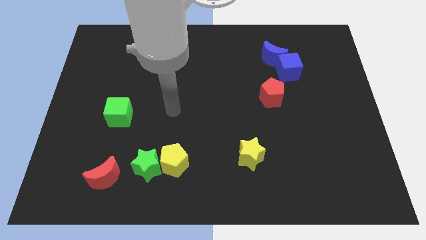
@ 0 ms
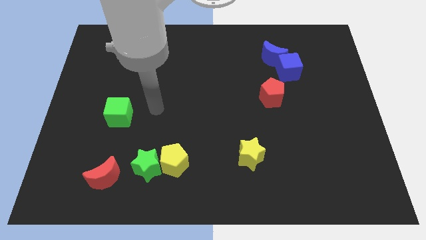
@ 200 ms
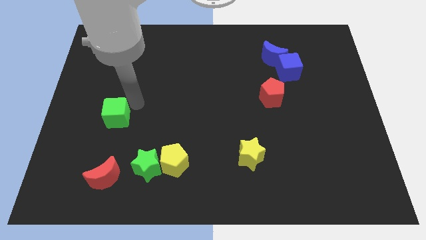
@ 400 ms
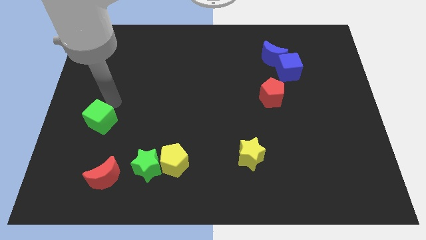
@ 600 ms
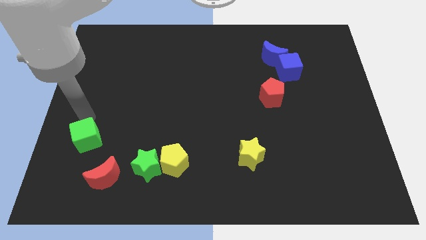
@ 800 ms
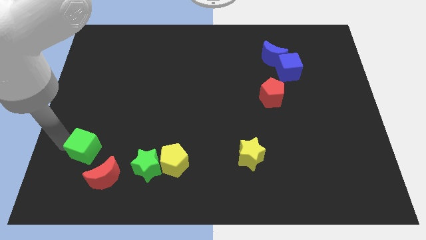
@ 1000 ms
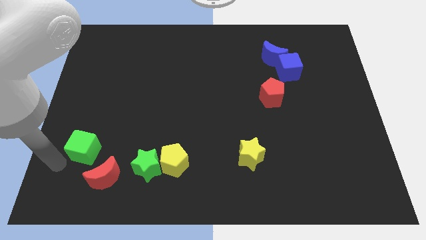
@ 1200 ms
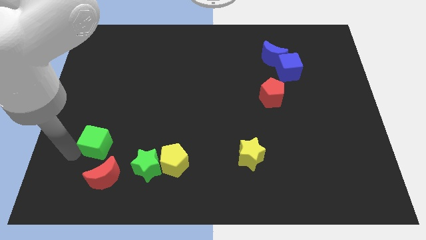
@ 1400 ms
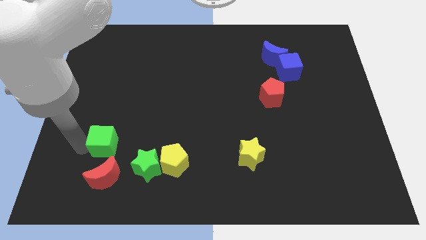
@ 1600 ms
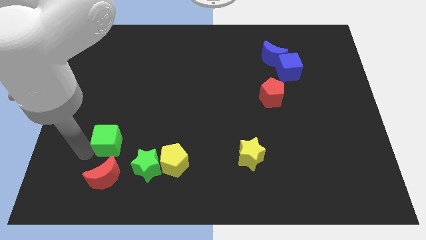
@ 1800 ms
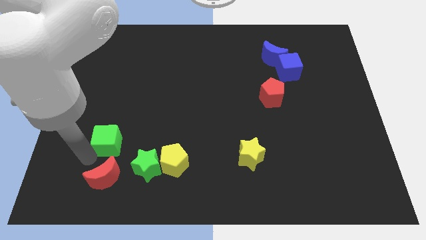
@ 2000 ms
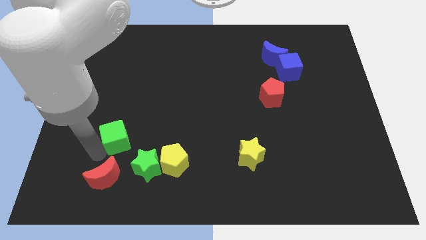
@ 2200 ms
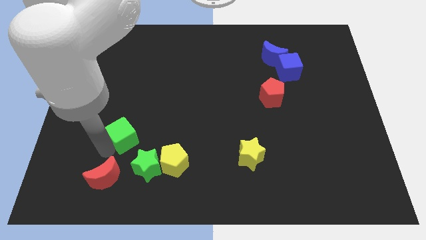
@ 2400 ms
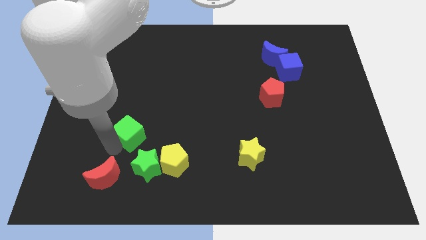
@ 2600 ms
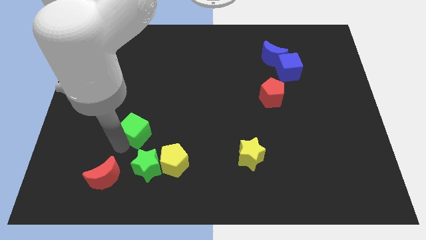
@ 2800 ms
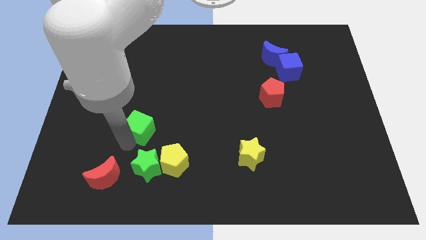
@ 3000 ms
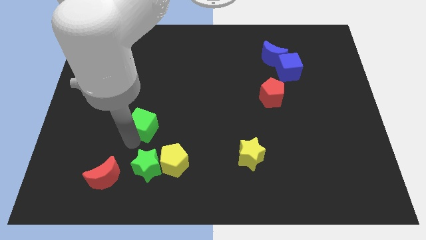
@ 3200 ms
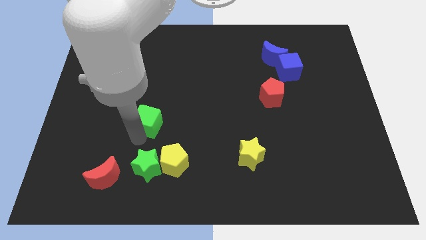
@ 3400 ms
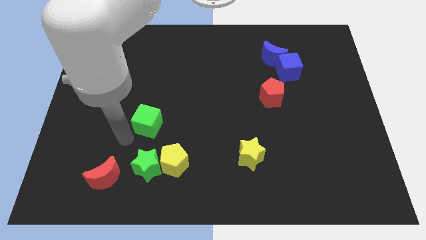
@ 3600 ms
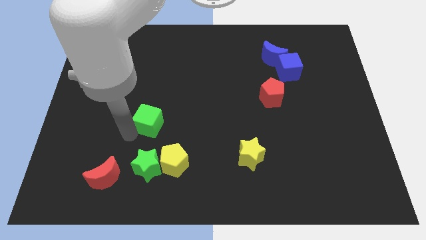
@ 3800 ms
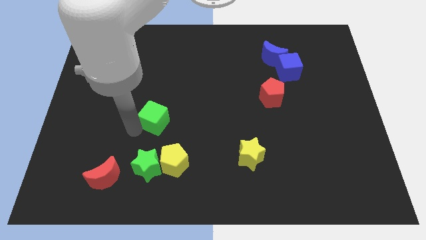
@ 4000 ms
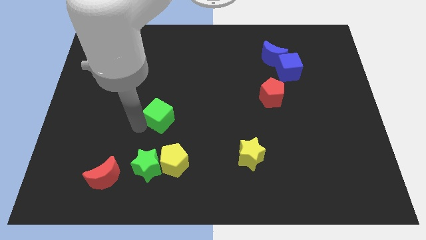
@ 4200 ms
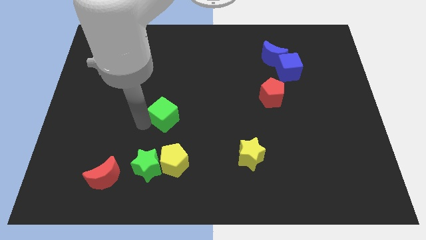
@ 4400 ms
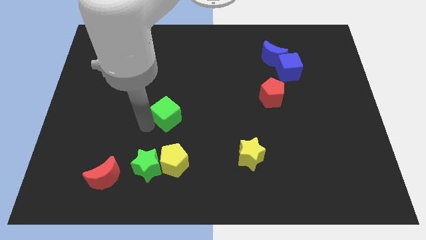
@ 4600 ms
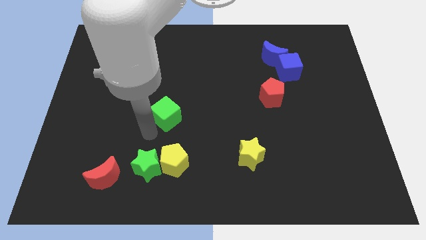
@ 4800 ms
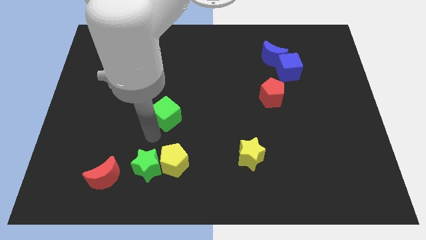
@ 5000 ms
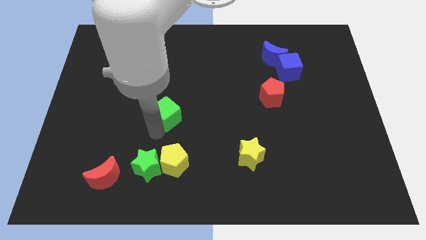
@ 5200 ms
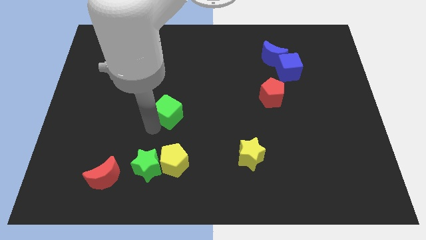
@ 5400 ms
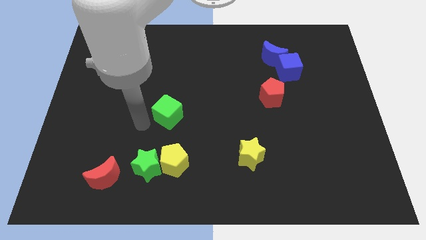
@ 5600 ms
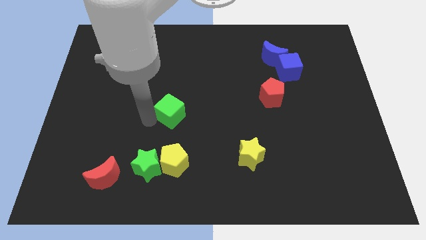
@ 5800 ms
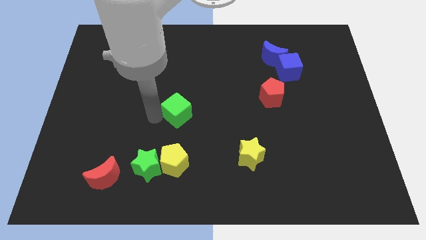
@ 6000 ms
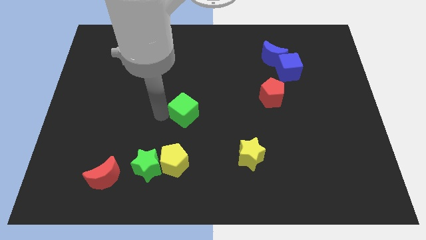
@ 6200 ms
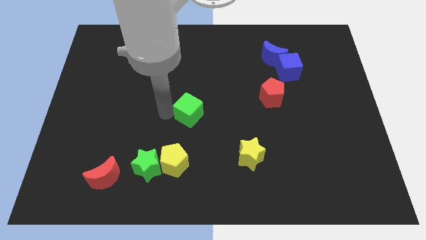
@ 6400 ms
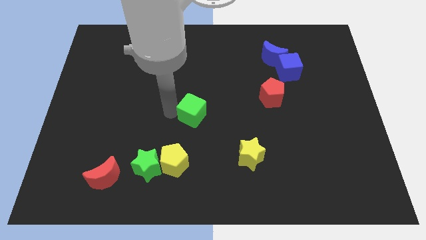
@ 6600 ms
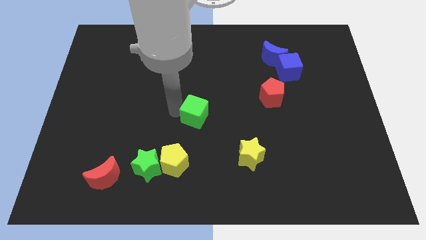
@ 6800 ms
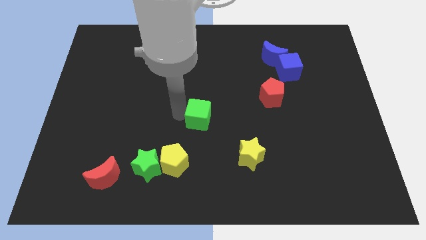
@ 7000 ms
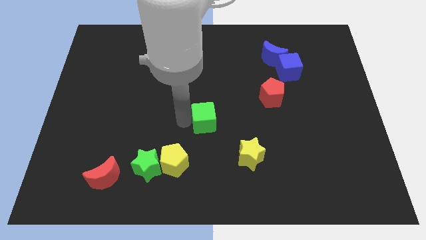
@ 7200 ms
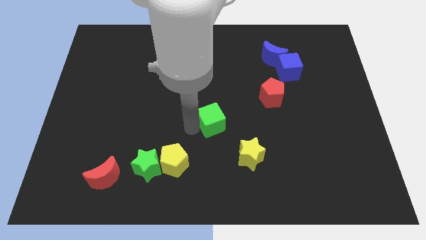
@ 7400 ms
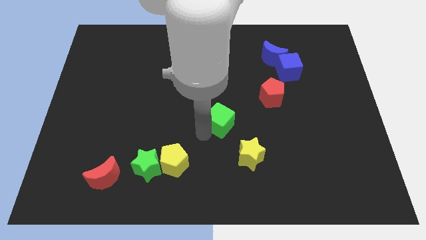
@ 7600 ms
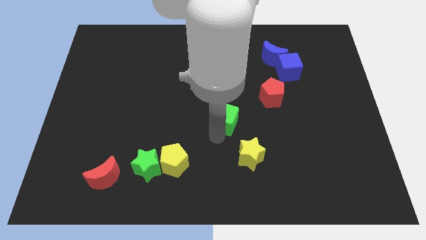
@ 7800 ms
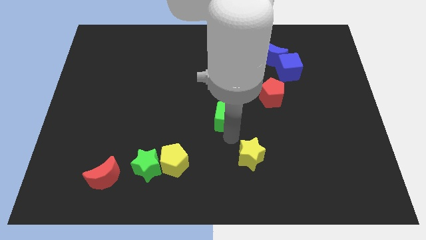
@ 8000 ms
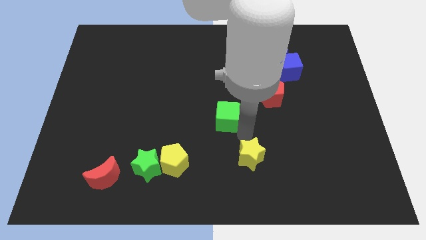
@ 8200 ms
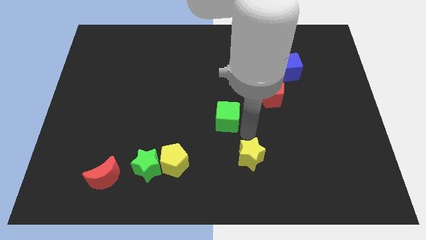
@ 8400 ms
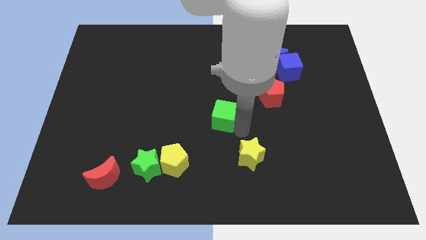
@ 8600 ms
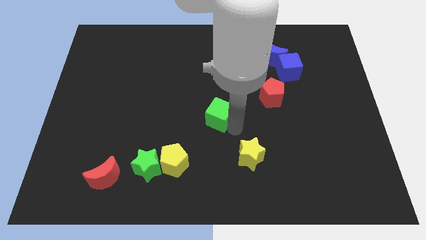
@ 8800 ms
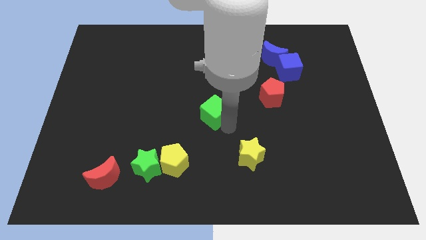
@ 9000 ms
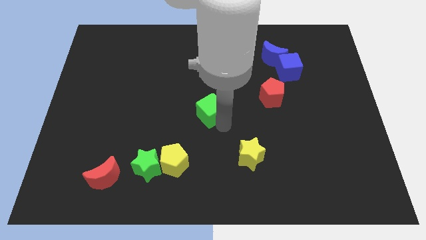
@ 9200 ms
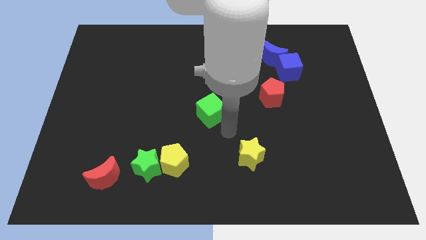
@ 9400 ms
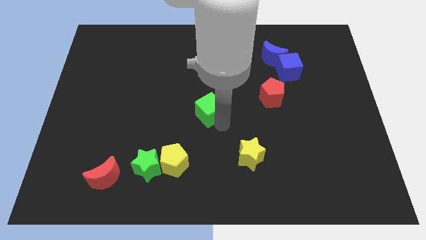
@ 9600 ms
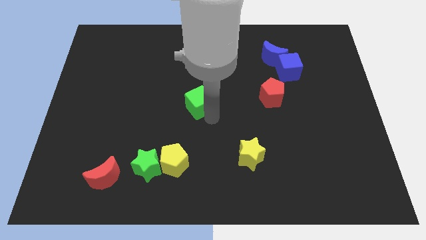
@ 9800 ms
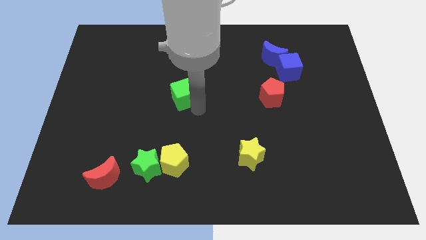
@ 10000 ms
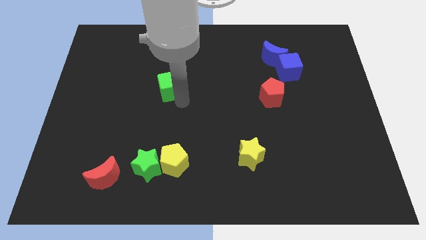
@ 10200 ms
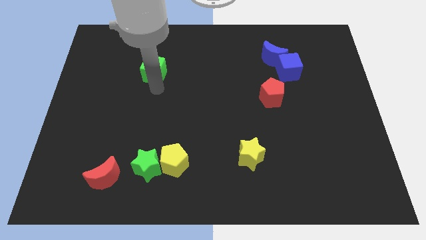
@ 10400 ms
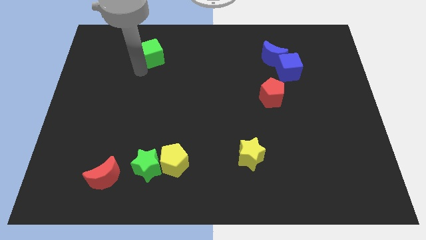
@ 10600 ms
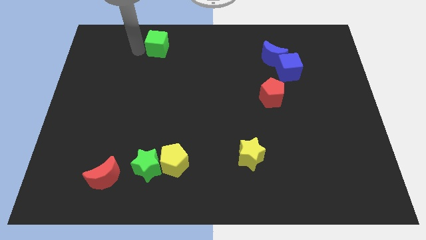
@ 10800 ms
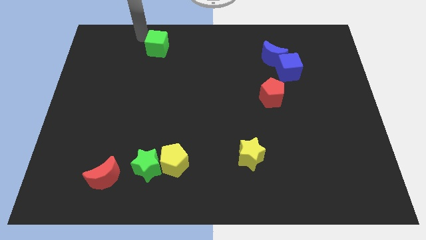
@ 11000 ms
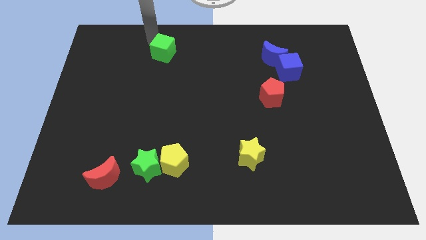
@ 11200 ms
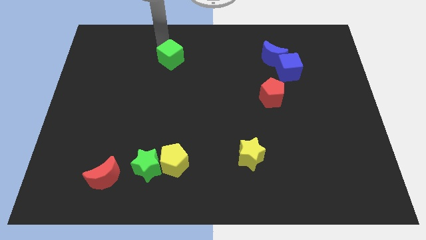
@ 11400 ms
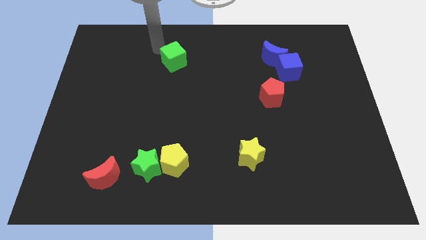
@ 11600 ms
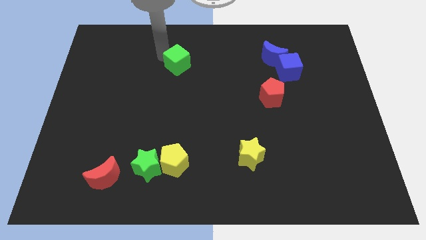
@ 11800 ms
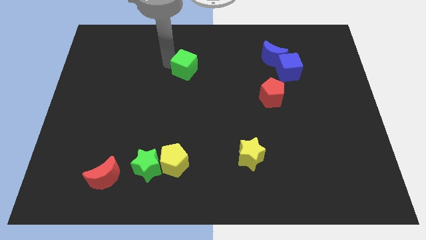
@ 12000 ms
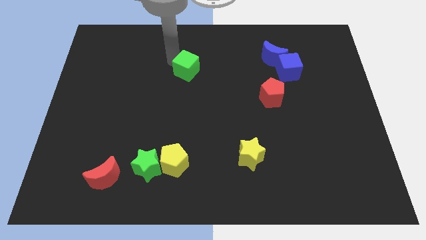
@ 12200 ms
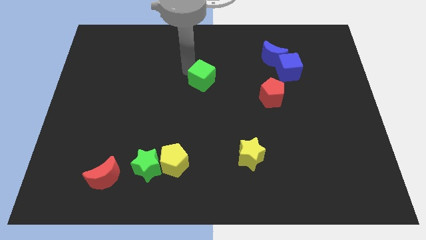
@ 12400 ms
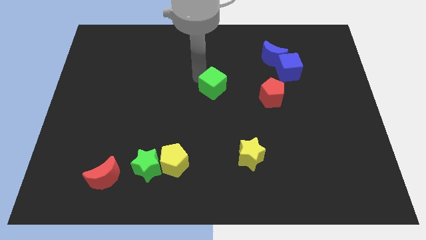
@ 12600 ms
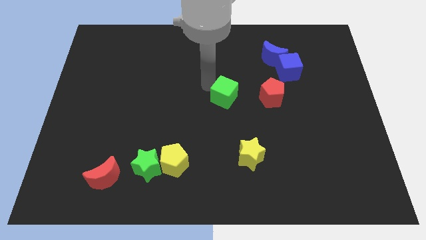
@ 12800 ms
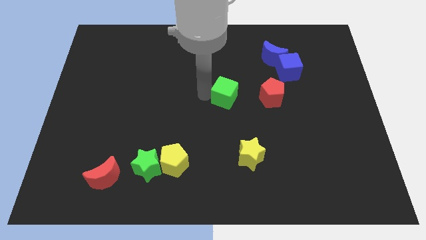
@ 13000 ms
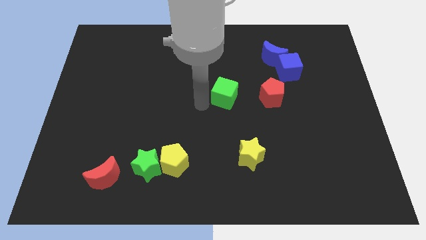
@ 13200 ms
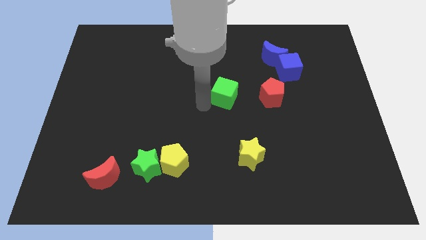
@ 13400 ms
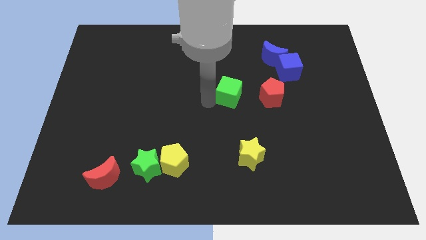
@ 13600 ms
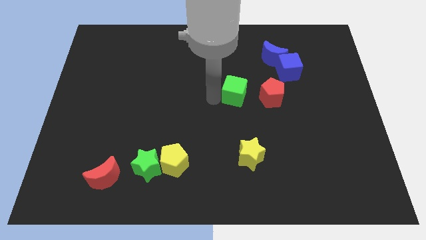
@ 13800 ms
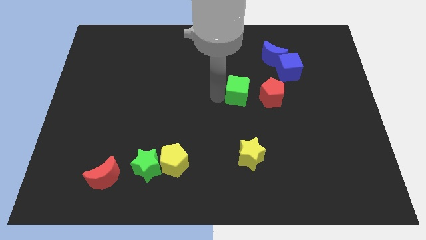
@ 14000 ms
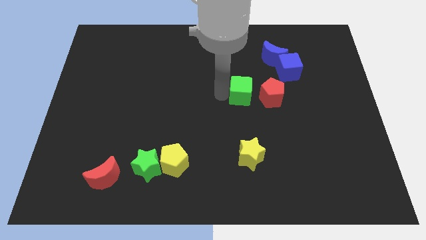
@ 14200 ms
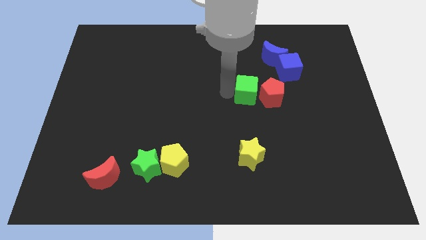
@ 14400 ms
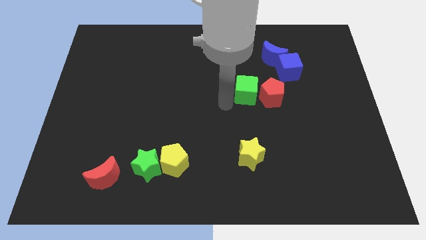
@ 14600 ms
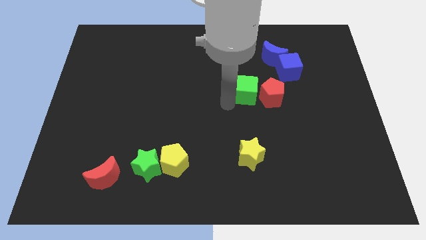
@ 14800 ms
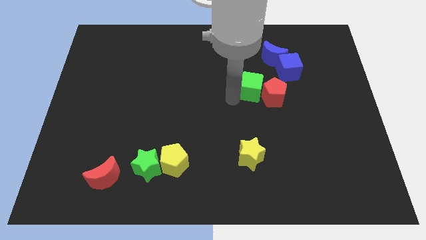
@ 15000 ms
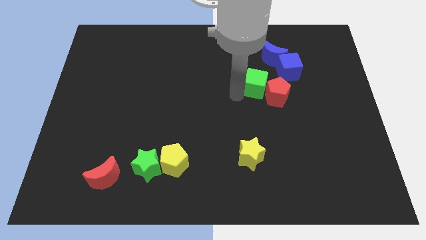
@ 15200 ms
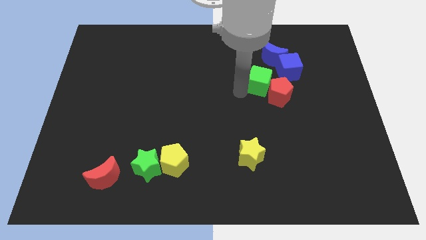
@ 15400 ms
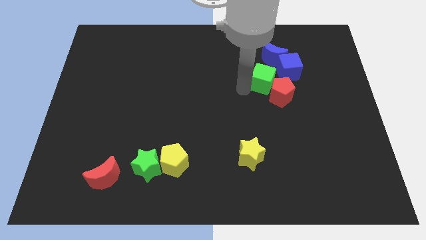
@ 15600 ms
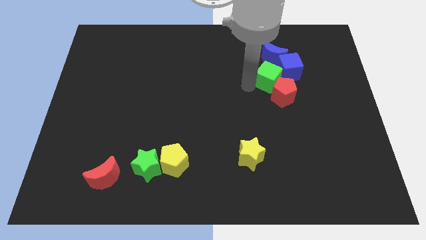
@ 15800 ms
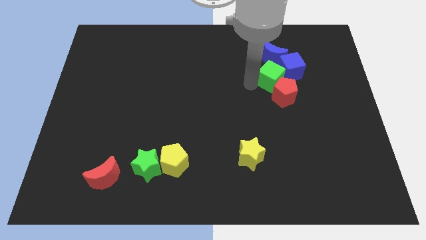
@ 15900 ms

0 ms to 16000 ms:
put the green cube towards the blue cube
